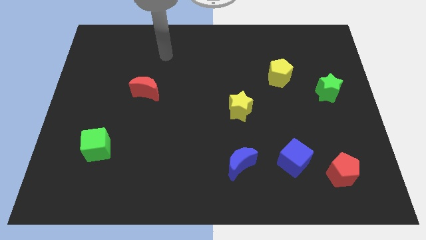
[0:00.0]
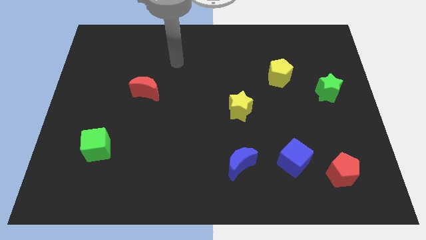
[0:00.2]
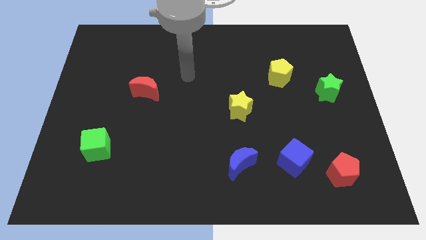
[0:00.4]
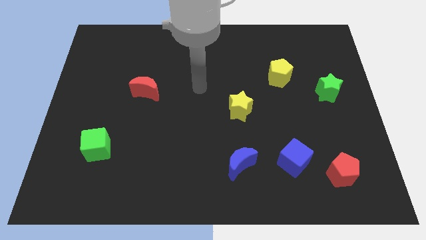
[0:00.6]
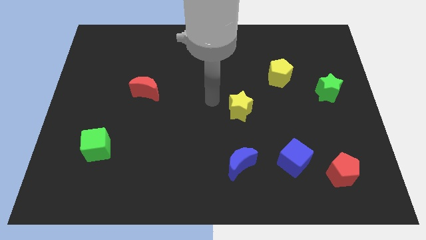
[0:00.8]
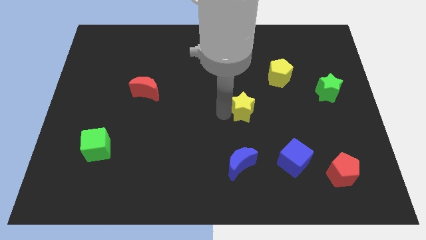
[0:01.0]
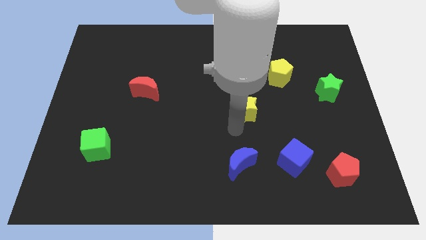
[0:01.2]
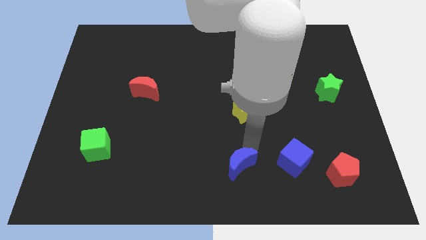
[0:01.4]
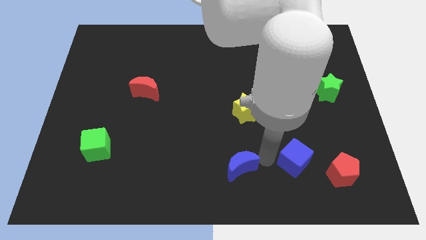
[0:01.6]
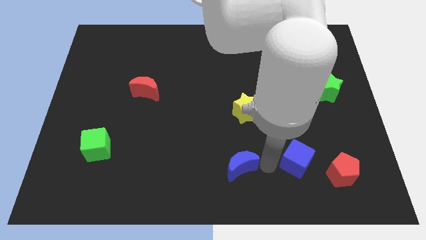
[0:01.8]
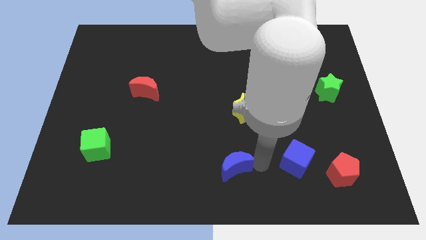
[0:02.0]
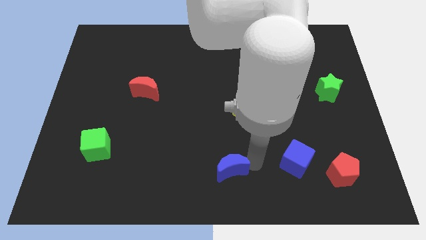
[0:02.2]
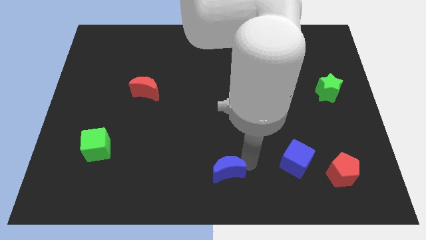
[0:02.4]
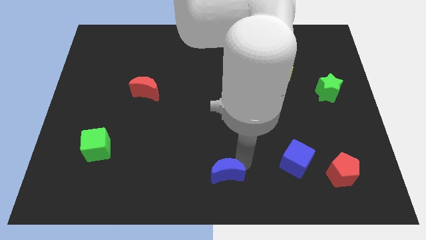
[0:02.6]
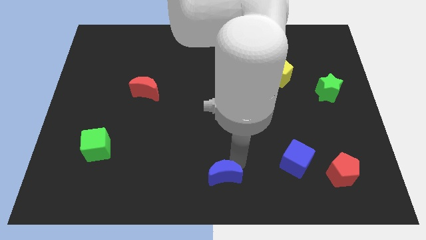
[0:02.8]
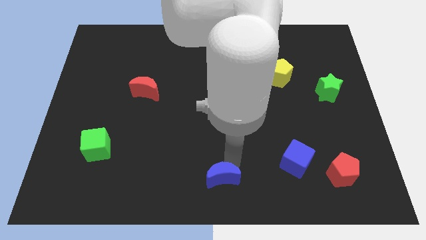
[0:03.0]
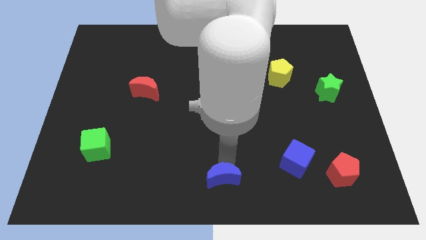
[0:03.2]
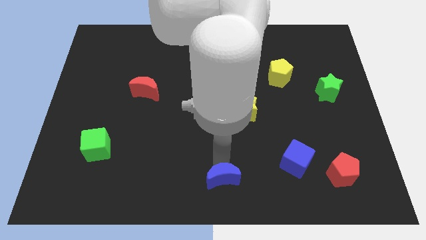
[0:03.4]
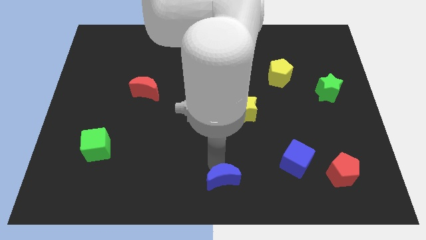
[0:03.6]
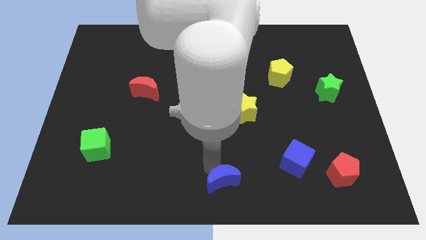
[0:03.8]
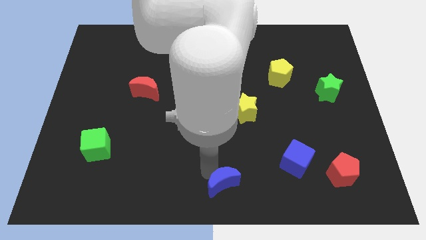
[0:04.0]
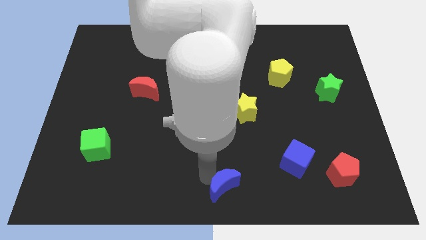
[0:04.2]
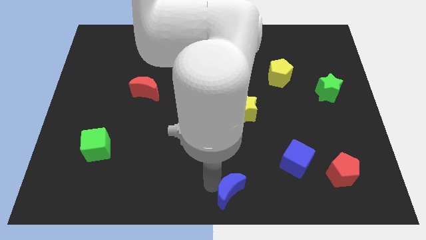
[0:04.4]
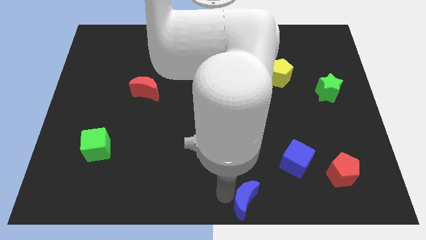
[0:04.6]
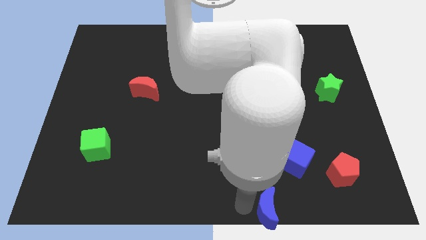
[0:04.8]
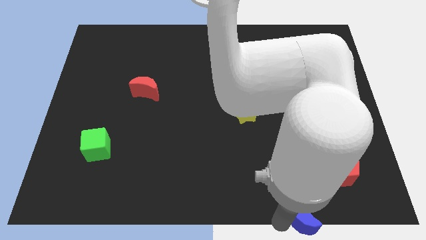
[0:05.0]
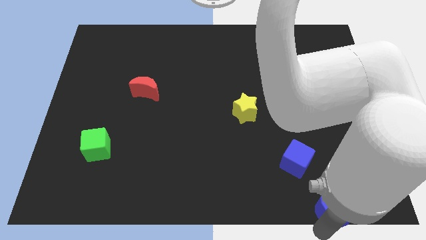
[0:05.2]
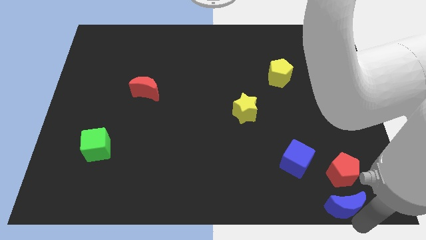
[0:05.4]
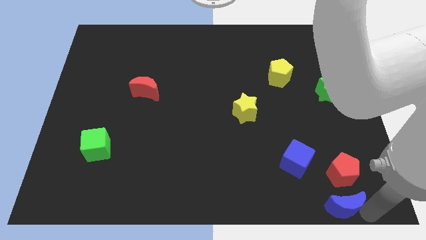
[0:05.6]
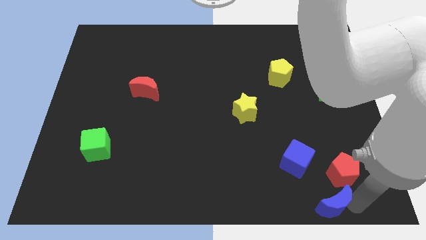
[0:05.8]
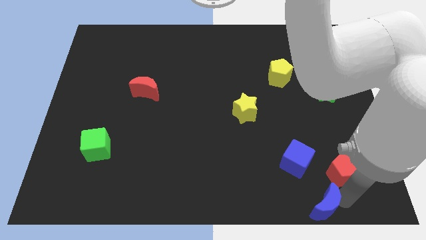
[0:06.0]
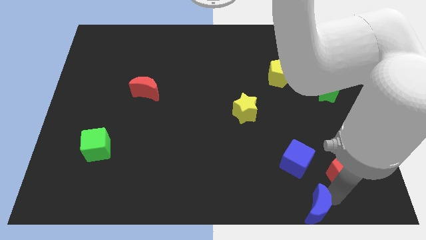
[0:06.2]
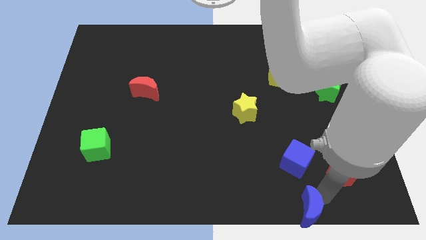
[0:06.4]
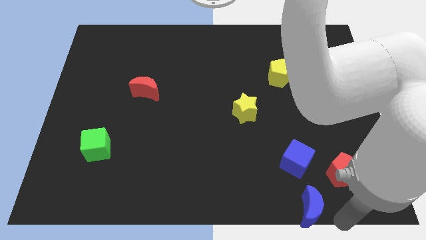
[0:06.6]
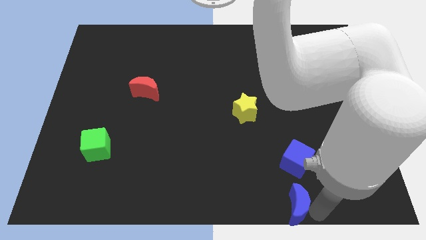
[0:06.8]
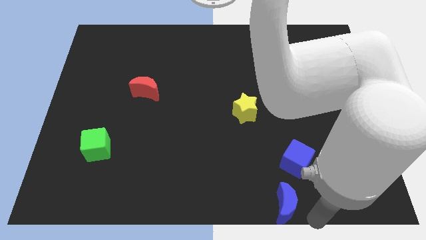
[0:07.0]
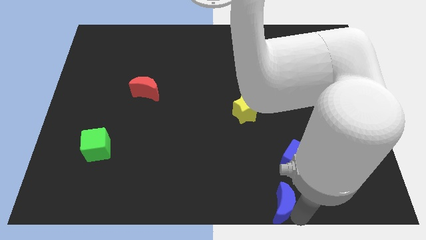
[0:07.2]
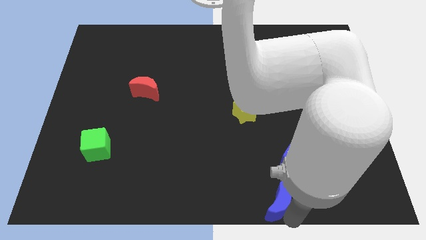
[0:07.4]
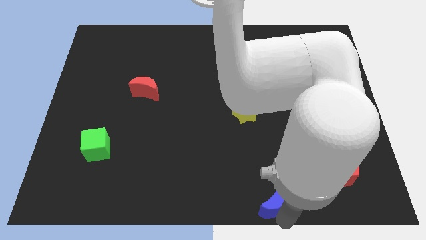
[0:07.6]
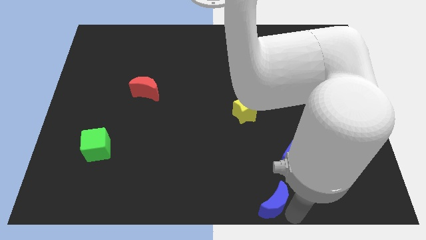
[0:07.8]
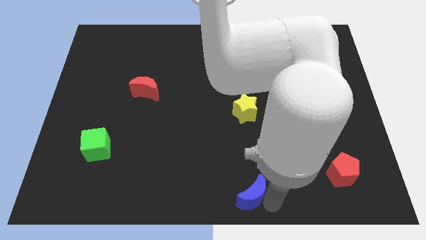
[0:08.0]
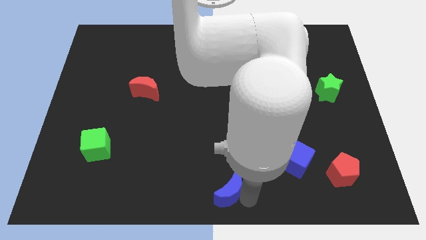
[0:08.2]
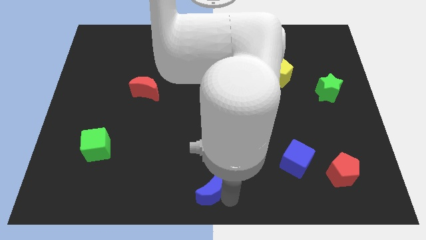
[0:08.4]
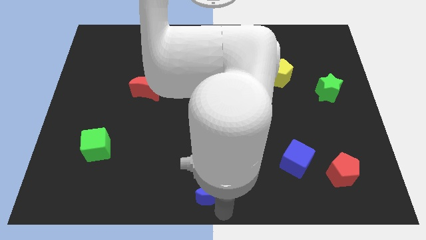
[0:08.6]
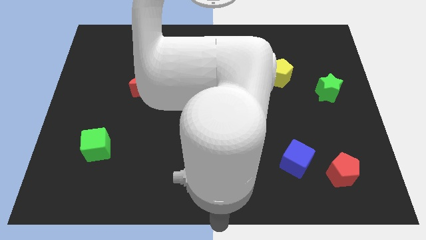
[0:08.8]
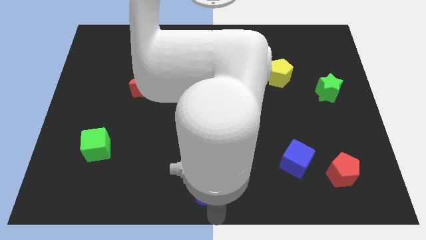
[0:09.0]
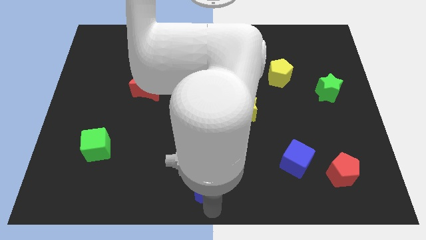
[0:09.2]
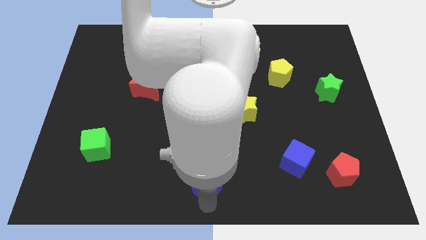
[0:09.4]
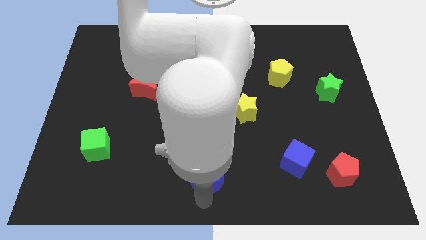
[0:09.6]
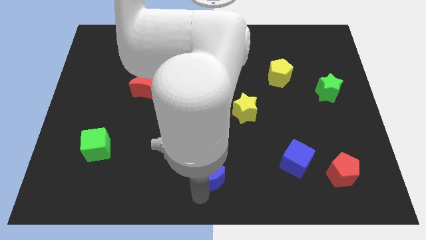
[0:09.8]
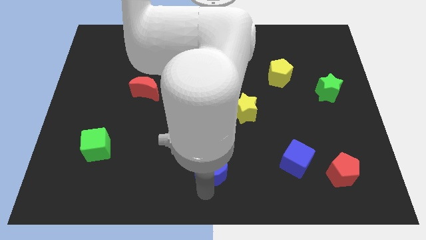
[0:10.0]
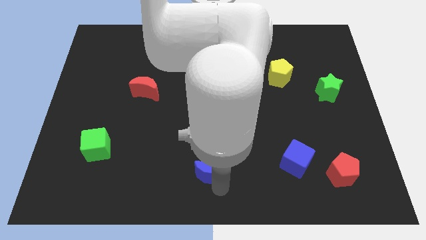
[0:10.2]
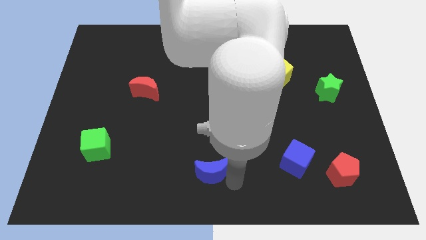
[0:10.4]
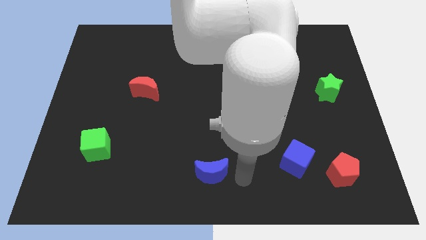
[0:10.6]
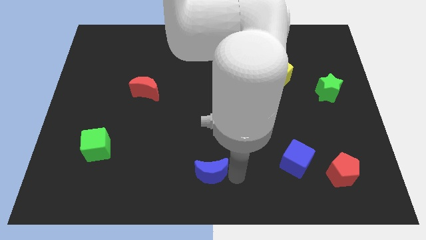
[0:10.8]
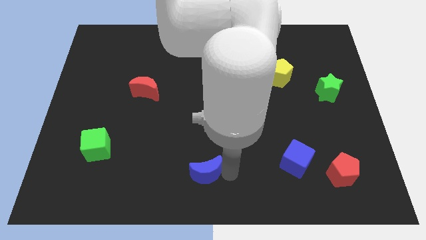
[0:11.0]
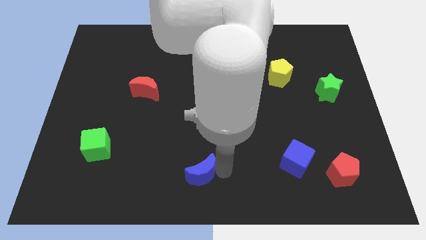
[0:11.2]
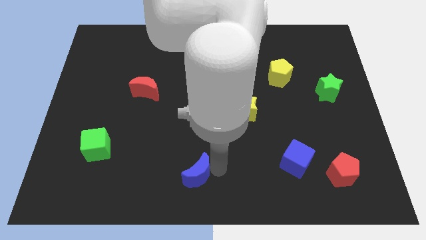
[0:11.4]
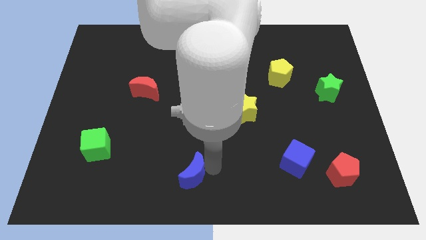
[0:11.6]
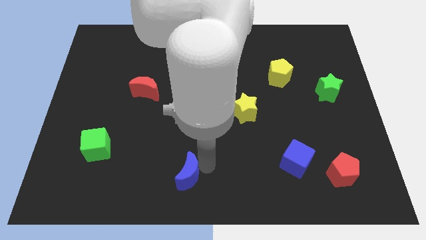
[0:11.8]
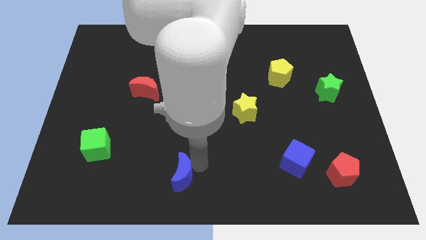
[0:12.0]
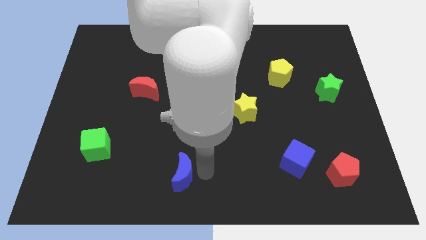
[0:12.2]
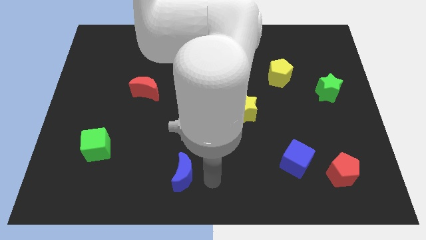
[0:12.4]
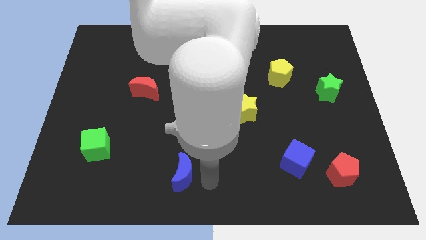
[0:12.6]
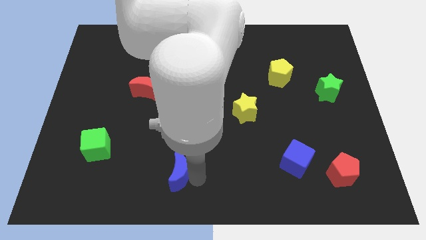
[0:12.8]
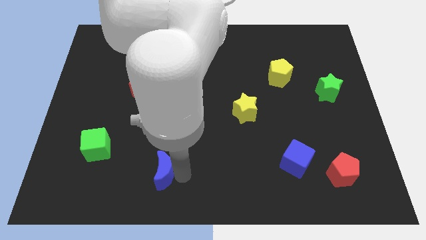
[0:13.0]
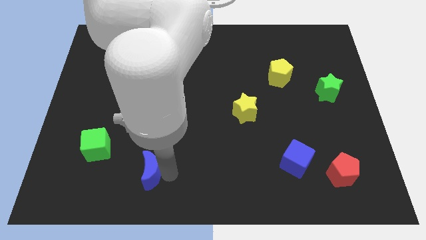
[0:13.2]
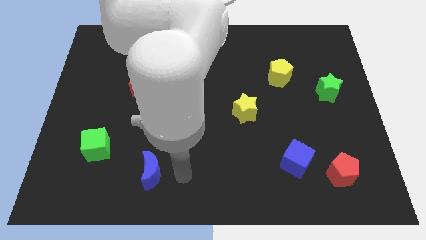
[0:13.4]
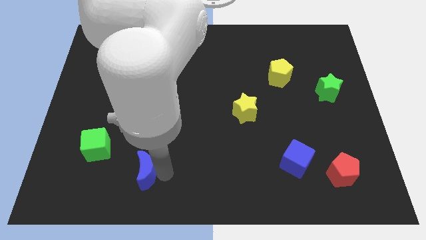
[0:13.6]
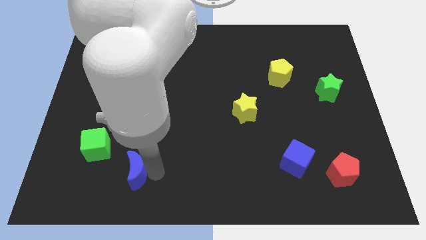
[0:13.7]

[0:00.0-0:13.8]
slide the blue moon left

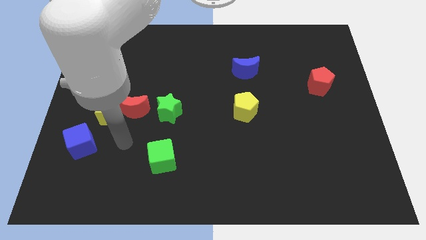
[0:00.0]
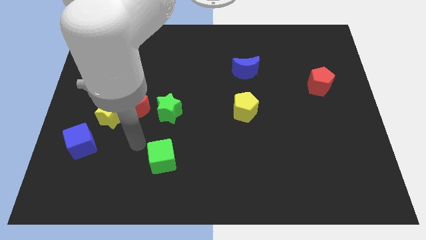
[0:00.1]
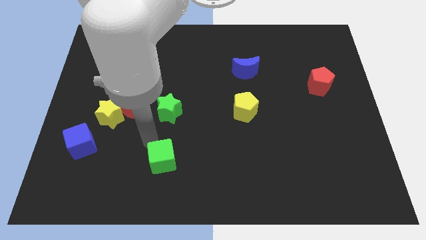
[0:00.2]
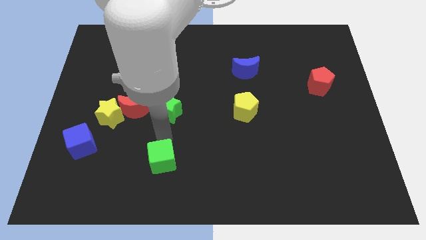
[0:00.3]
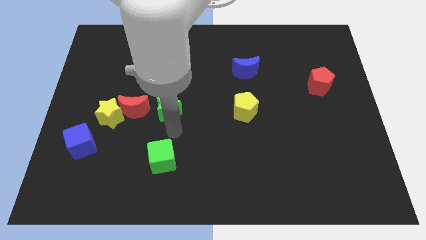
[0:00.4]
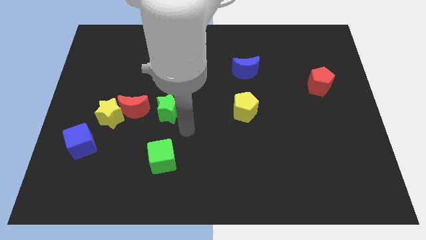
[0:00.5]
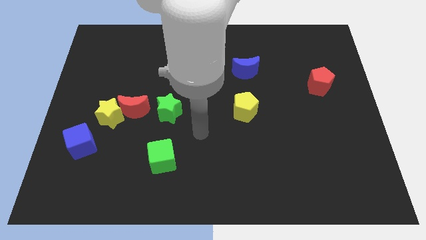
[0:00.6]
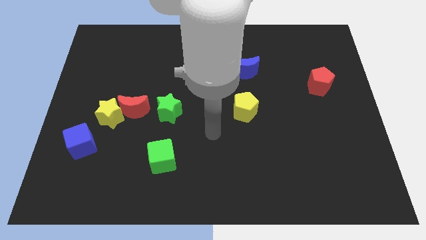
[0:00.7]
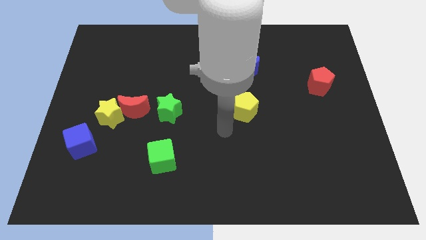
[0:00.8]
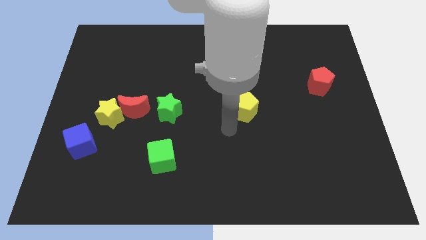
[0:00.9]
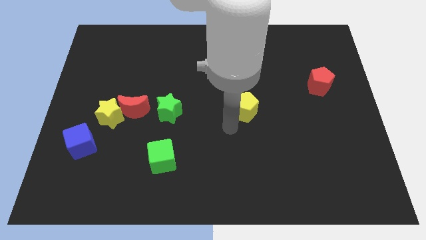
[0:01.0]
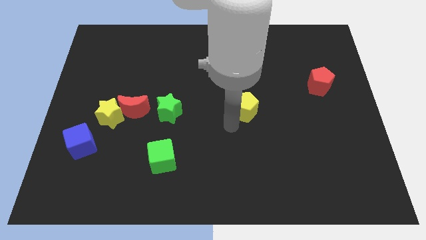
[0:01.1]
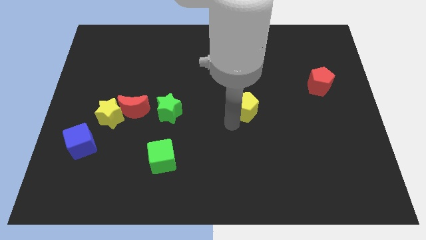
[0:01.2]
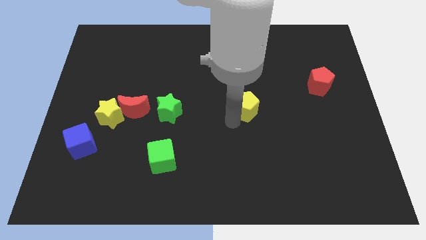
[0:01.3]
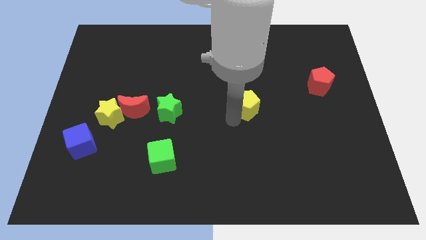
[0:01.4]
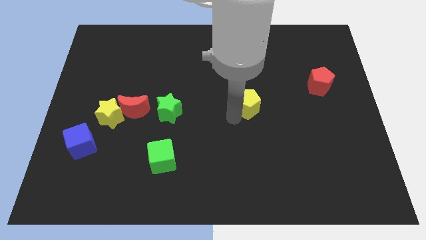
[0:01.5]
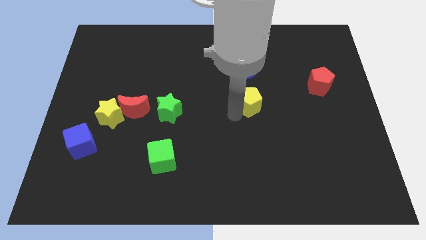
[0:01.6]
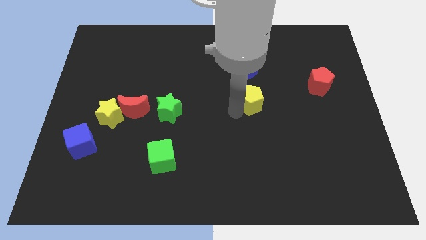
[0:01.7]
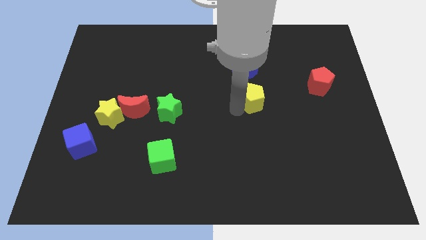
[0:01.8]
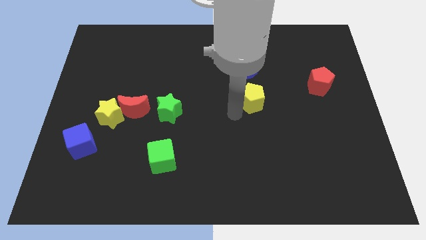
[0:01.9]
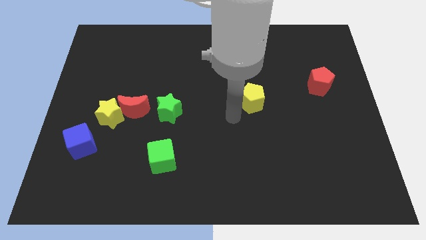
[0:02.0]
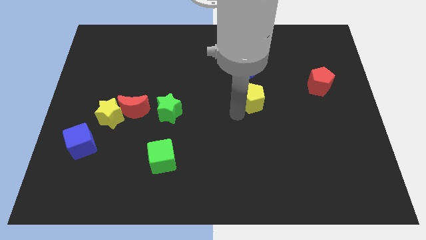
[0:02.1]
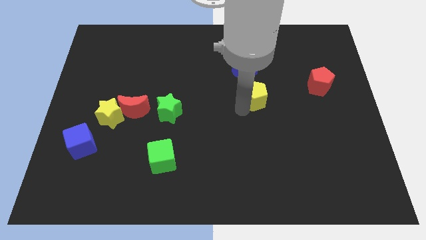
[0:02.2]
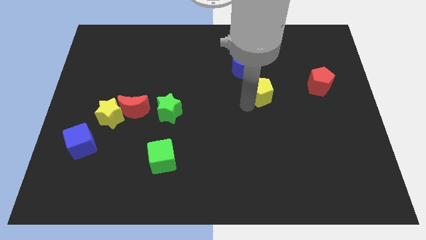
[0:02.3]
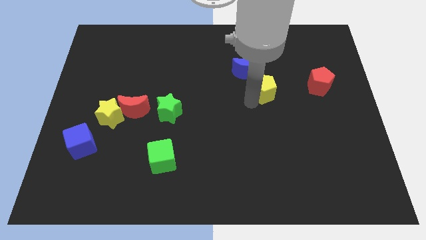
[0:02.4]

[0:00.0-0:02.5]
push the yellow pentagon a little bit up and right
